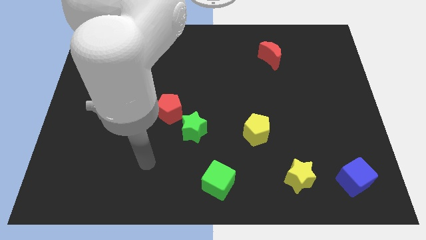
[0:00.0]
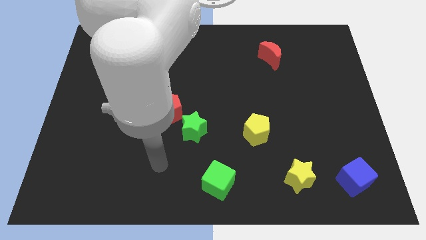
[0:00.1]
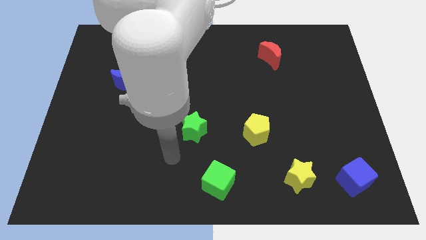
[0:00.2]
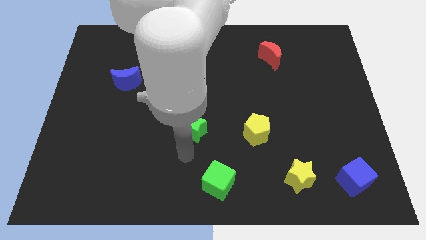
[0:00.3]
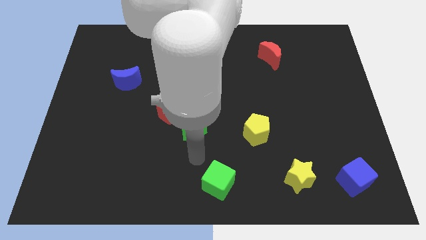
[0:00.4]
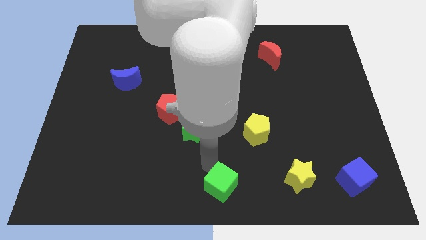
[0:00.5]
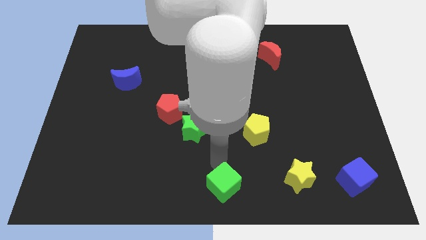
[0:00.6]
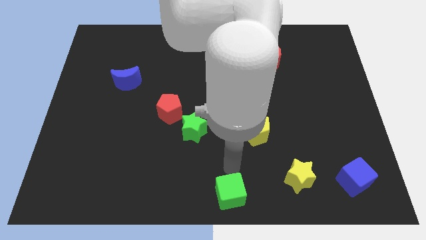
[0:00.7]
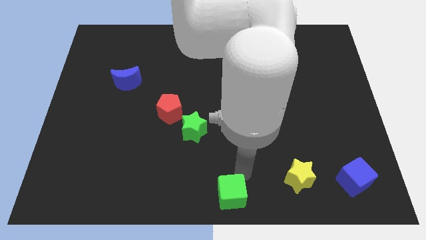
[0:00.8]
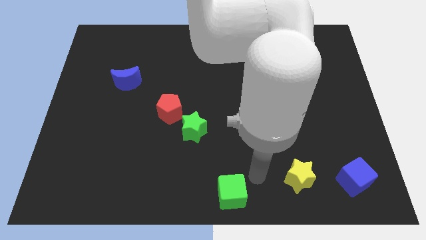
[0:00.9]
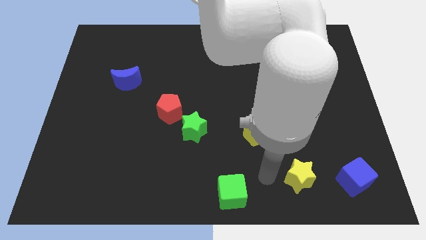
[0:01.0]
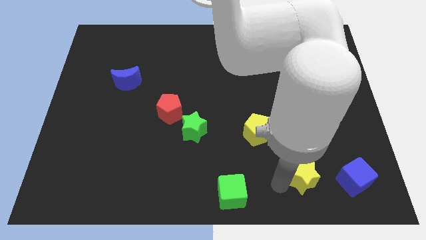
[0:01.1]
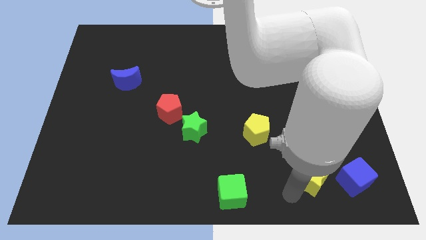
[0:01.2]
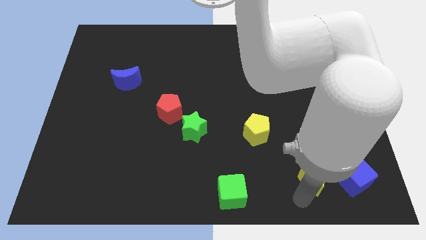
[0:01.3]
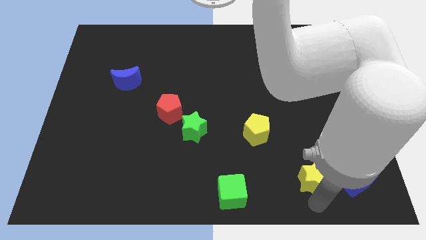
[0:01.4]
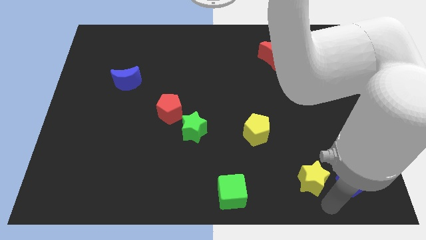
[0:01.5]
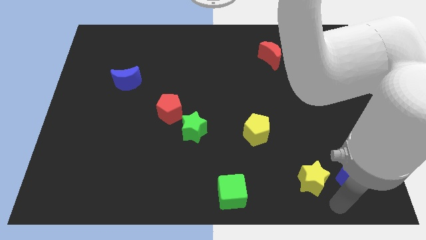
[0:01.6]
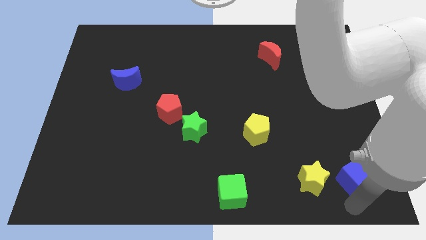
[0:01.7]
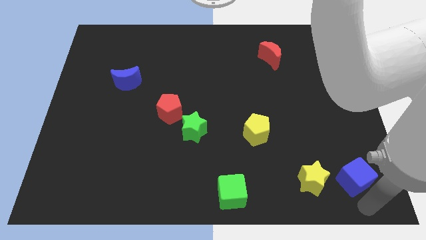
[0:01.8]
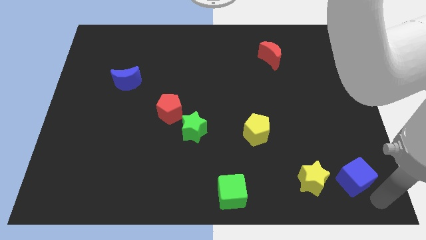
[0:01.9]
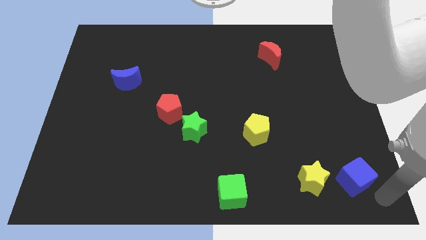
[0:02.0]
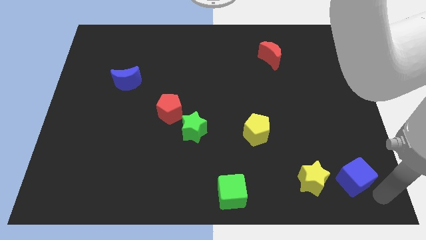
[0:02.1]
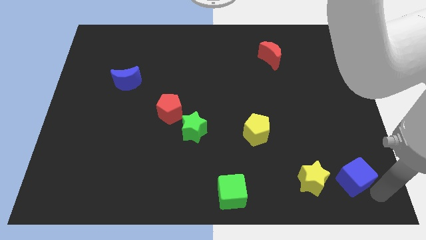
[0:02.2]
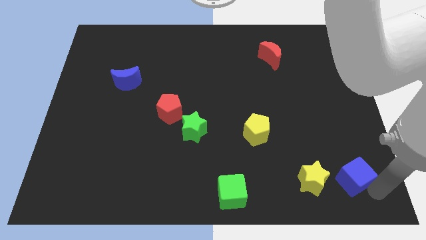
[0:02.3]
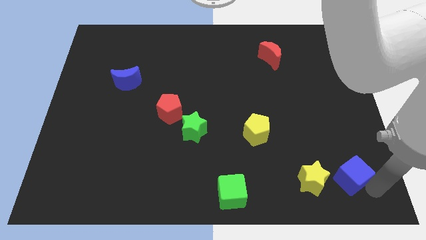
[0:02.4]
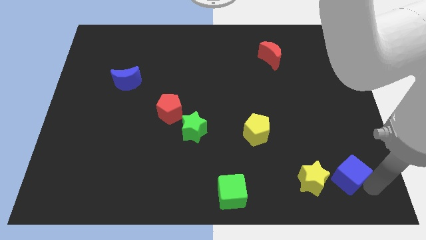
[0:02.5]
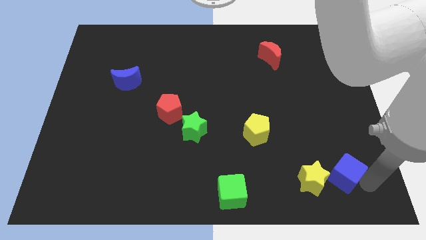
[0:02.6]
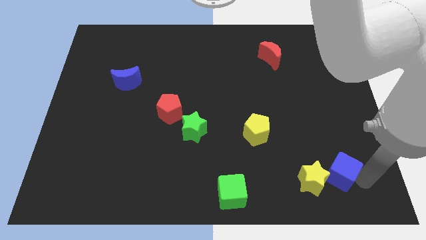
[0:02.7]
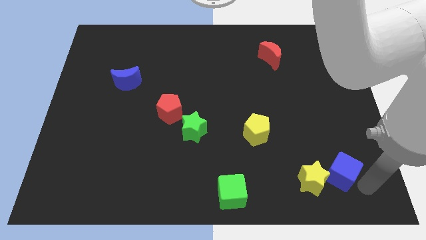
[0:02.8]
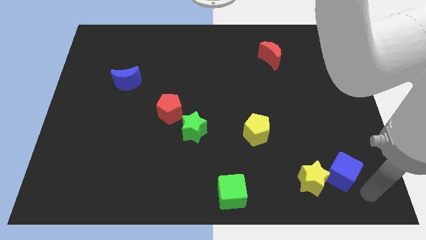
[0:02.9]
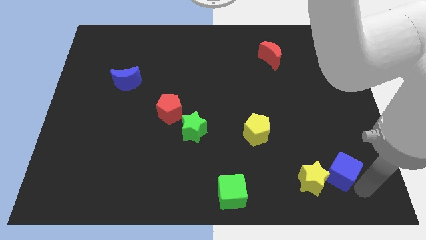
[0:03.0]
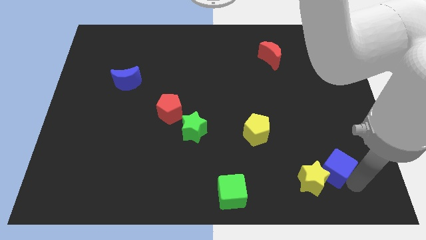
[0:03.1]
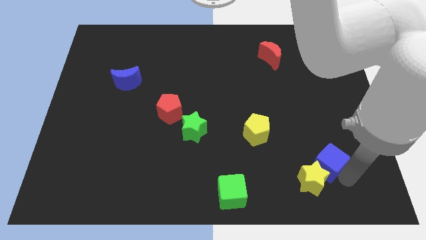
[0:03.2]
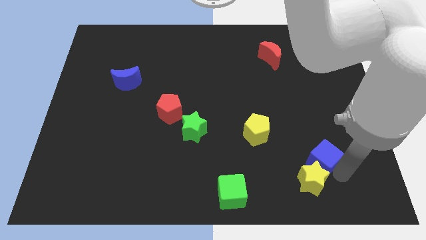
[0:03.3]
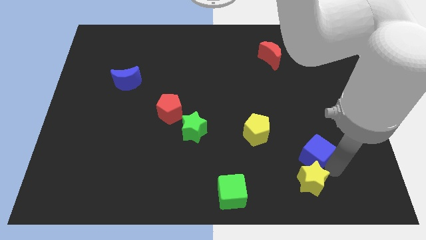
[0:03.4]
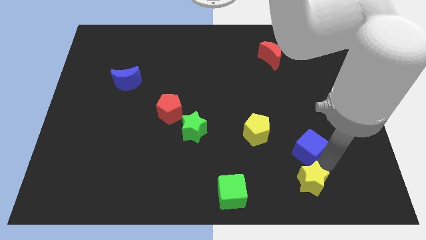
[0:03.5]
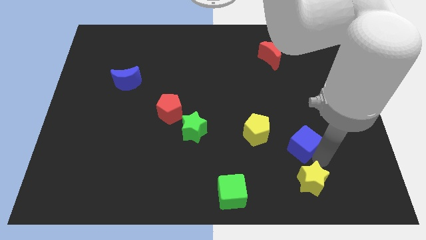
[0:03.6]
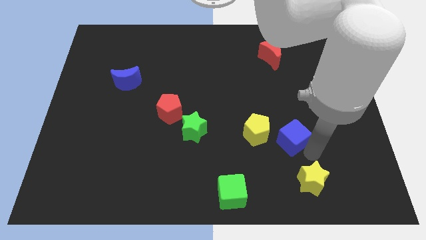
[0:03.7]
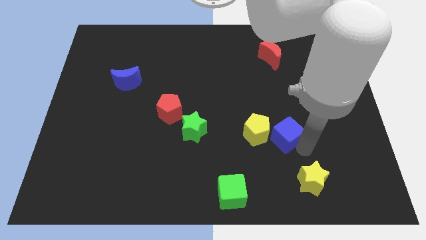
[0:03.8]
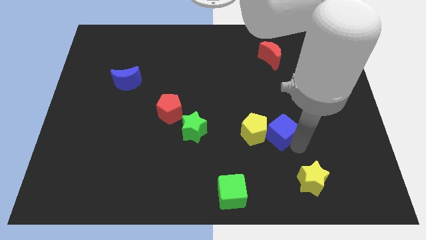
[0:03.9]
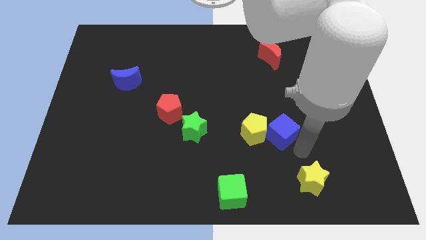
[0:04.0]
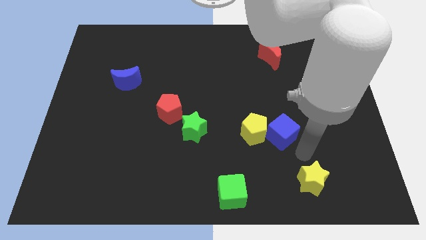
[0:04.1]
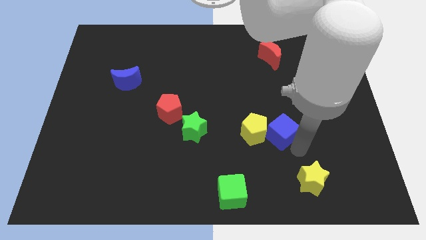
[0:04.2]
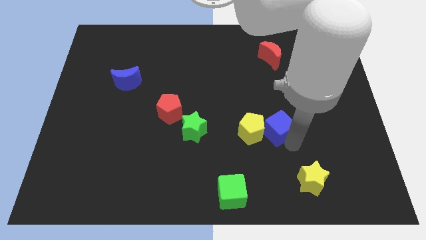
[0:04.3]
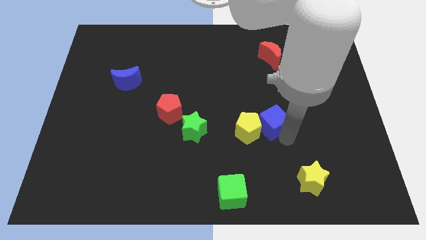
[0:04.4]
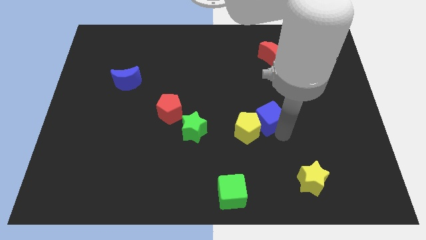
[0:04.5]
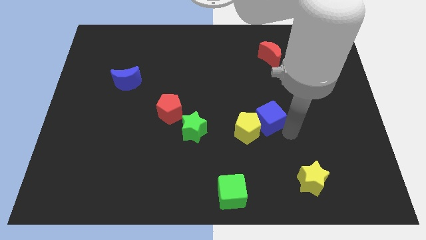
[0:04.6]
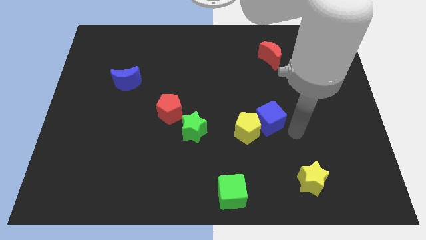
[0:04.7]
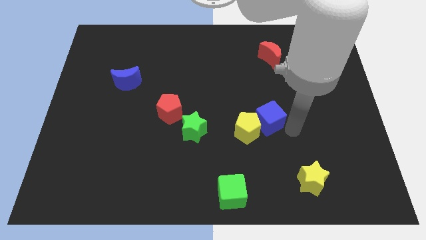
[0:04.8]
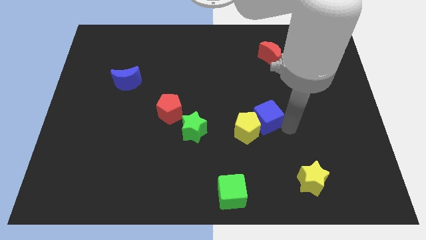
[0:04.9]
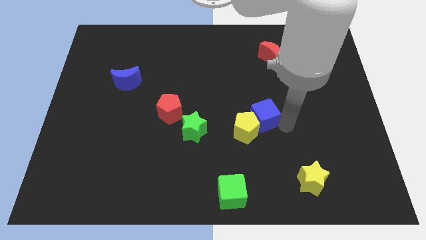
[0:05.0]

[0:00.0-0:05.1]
slide the blue cube to the middle

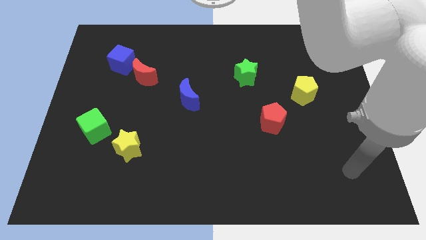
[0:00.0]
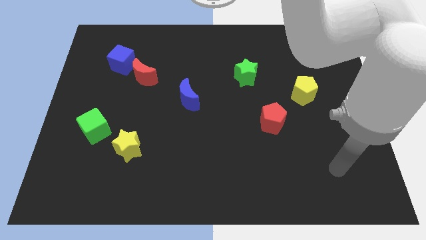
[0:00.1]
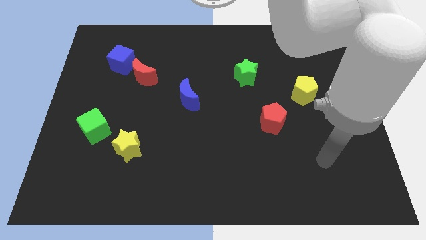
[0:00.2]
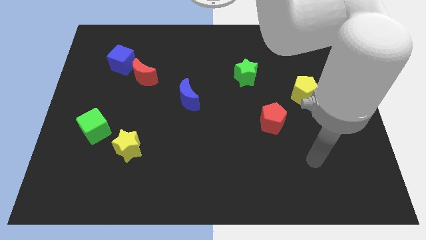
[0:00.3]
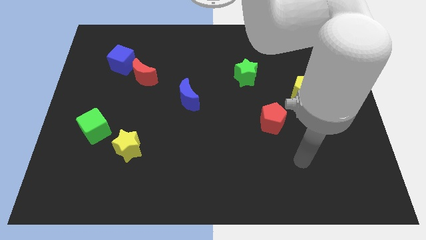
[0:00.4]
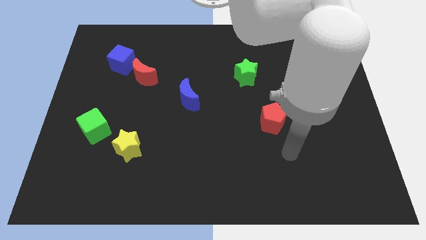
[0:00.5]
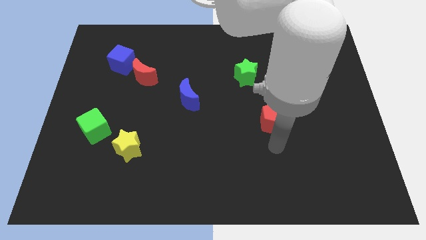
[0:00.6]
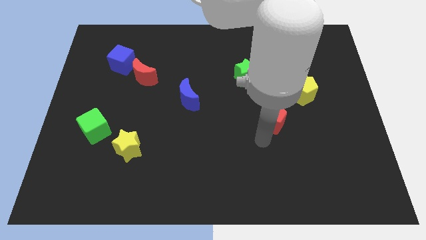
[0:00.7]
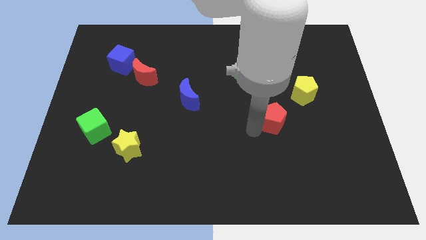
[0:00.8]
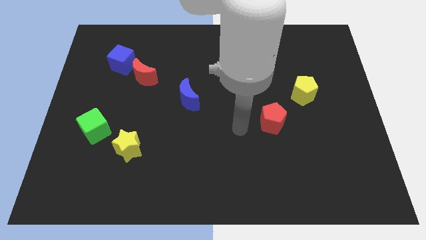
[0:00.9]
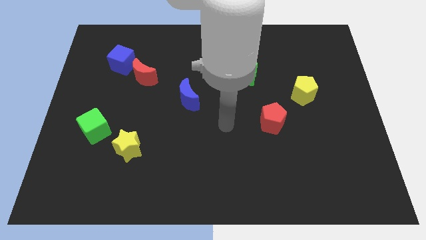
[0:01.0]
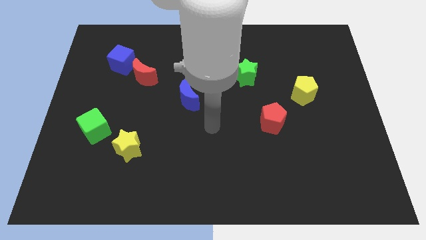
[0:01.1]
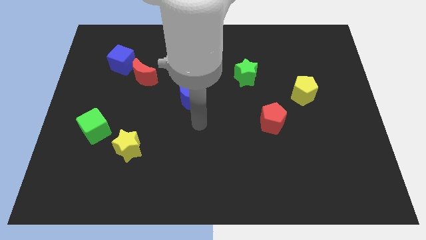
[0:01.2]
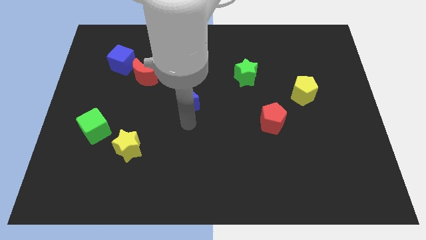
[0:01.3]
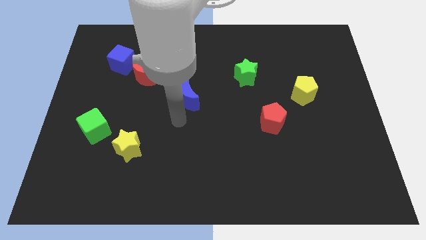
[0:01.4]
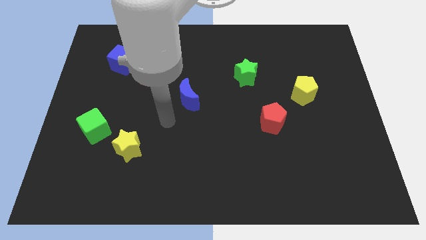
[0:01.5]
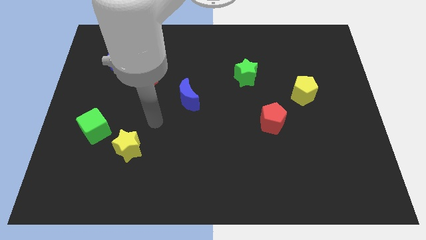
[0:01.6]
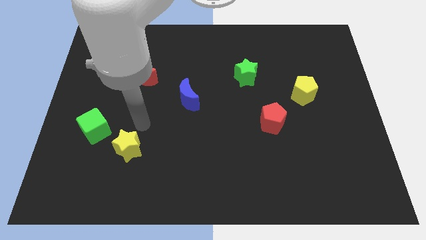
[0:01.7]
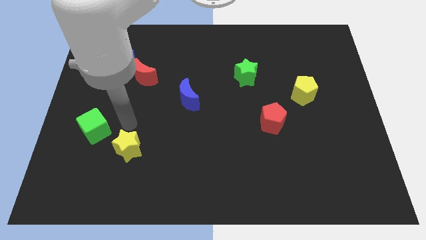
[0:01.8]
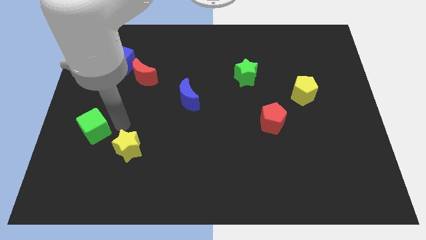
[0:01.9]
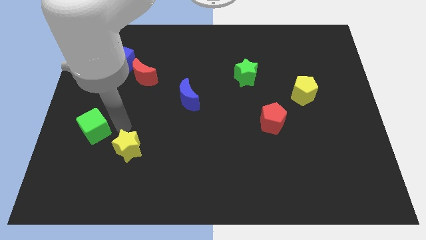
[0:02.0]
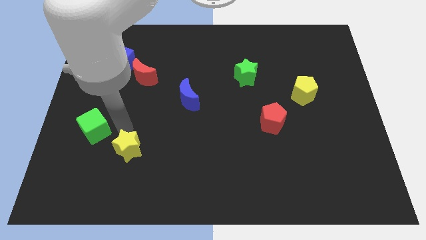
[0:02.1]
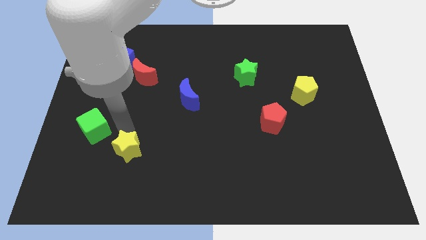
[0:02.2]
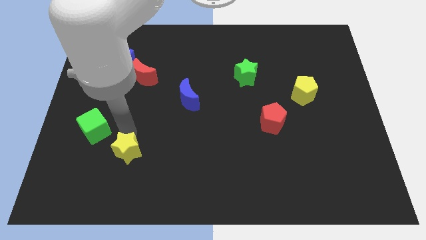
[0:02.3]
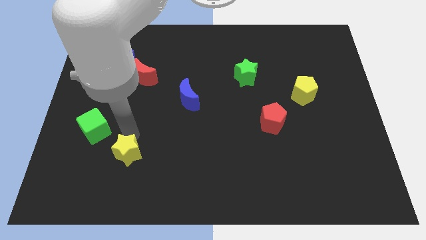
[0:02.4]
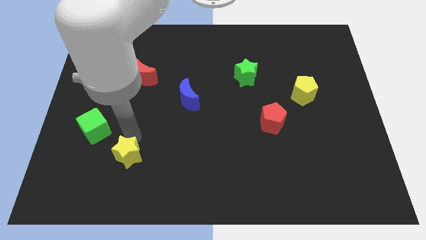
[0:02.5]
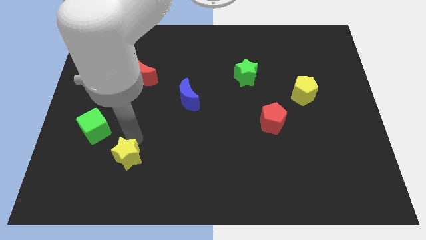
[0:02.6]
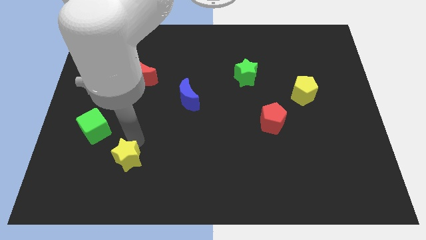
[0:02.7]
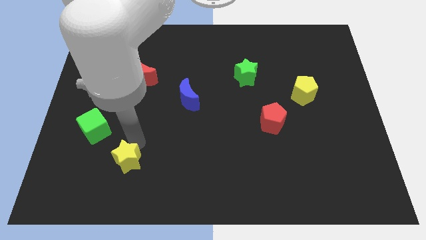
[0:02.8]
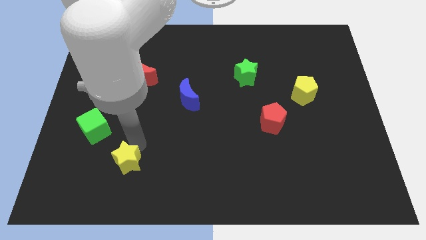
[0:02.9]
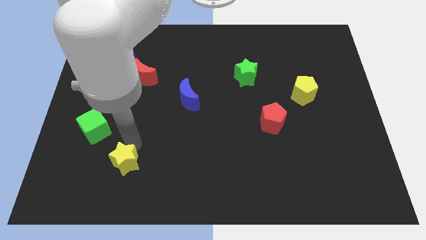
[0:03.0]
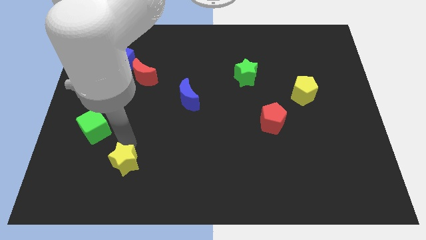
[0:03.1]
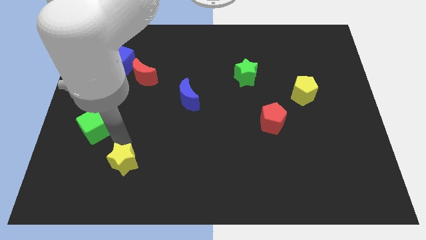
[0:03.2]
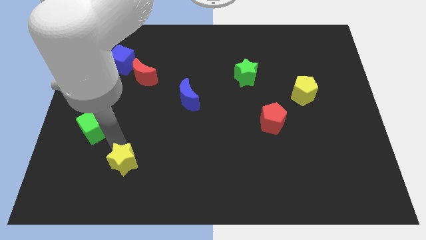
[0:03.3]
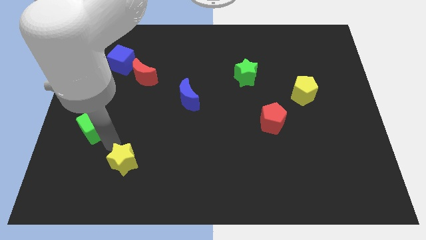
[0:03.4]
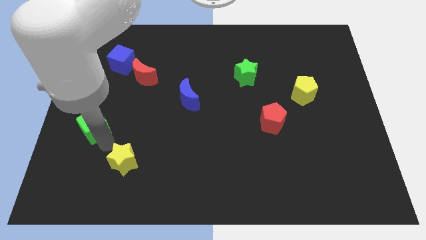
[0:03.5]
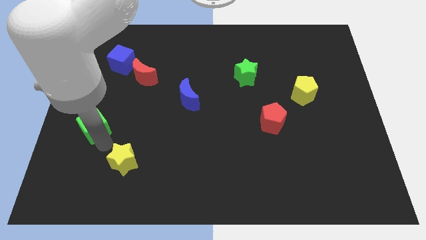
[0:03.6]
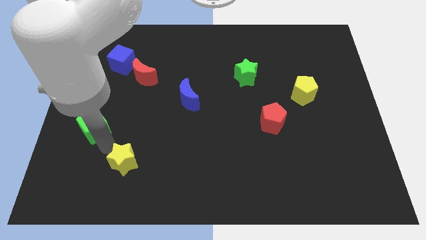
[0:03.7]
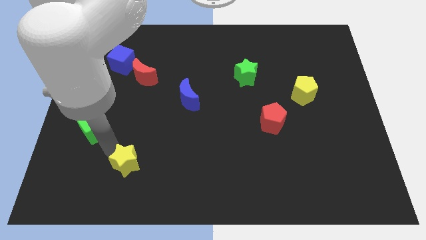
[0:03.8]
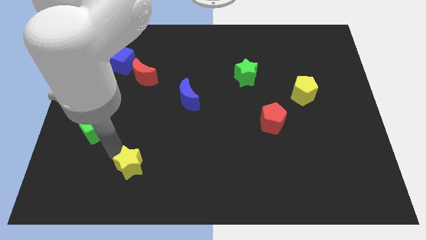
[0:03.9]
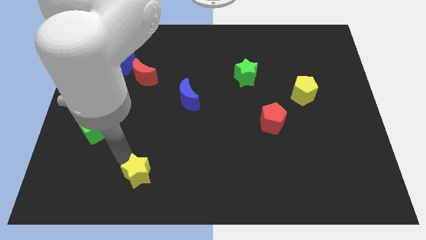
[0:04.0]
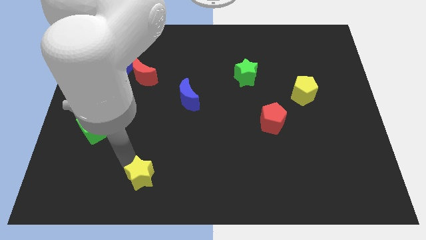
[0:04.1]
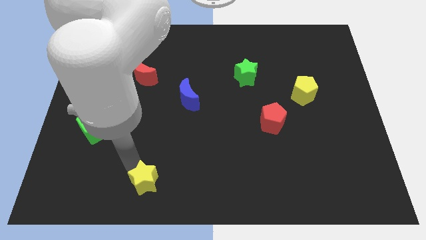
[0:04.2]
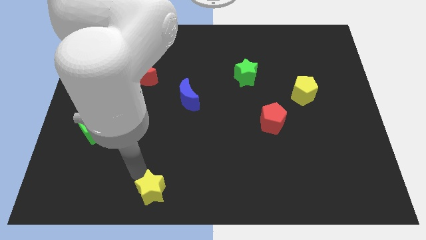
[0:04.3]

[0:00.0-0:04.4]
put the yellow star to the bottom
